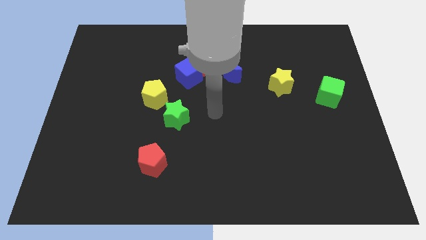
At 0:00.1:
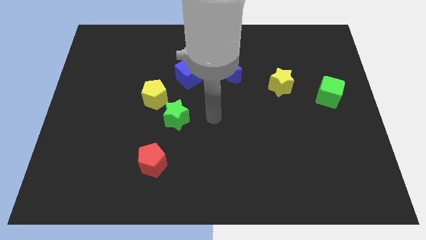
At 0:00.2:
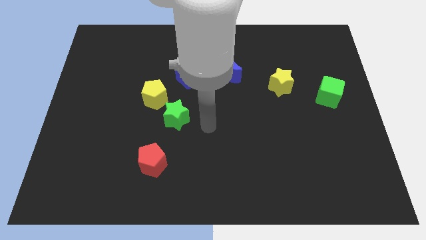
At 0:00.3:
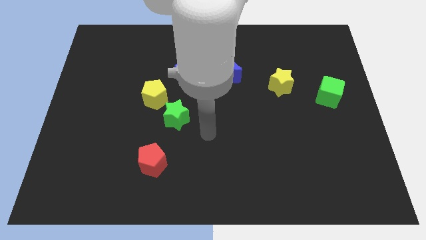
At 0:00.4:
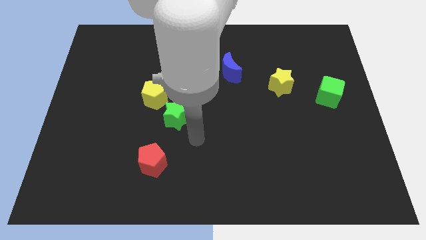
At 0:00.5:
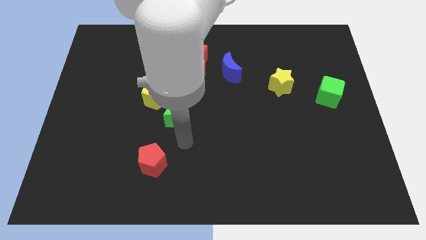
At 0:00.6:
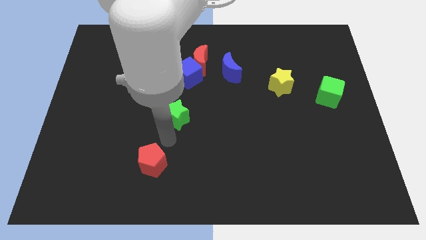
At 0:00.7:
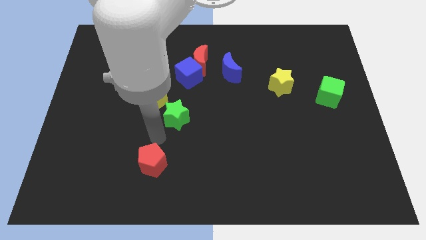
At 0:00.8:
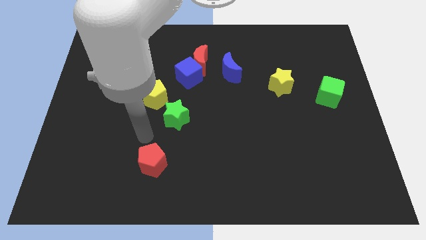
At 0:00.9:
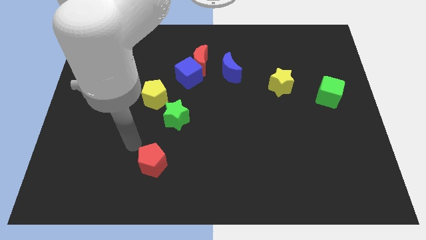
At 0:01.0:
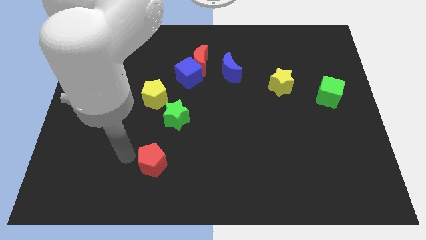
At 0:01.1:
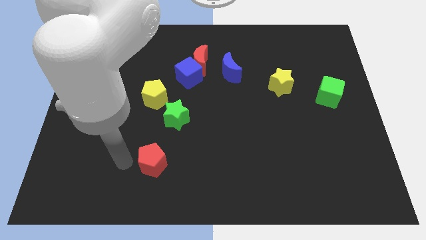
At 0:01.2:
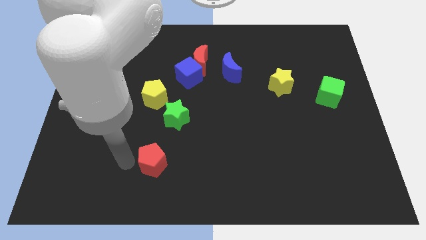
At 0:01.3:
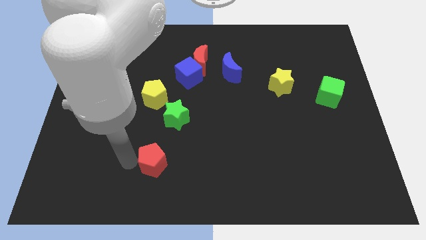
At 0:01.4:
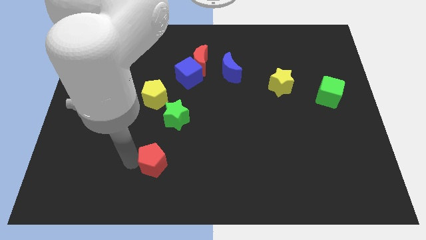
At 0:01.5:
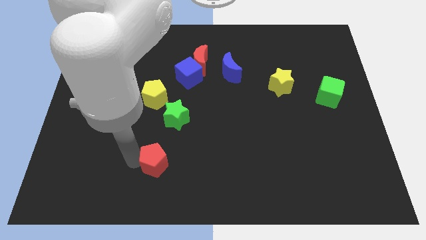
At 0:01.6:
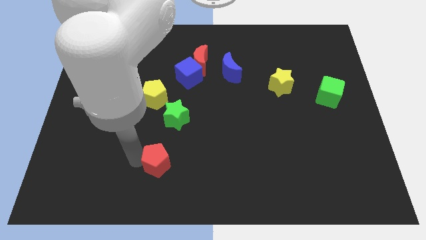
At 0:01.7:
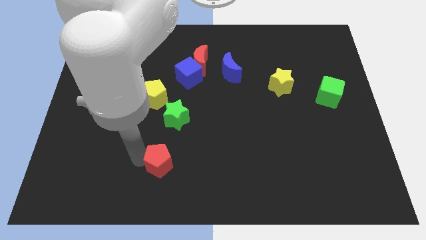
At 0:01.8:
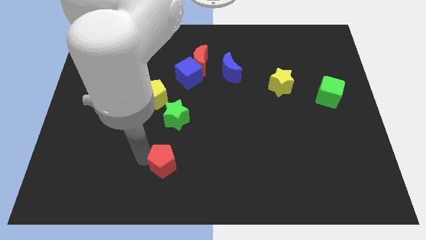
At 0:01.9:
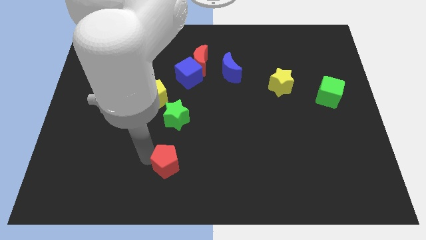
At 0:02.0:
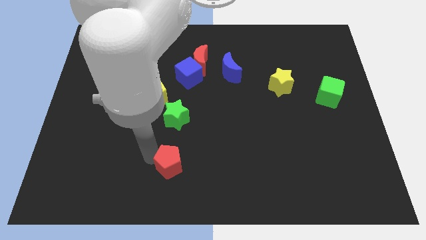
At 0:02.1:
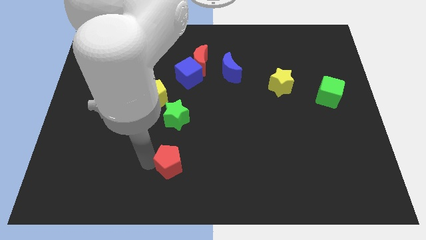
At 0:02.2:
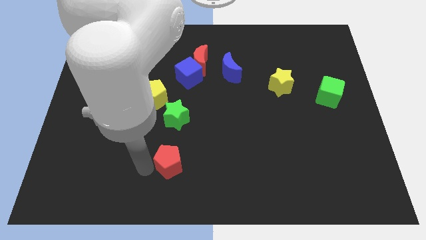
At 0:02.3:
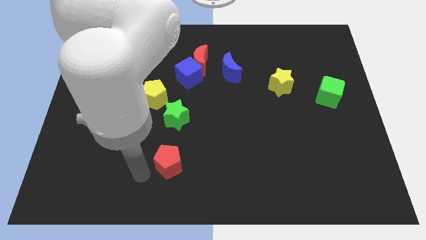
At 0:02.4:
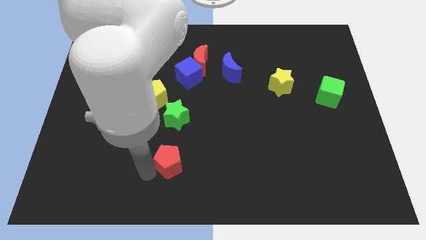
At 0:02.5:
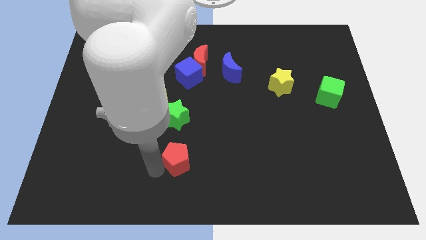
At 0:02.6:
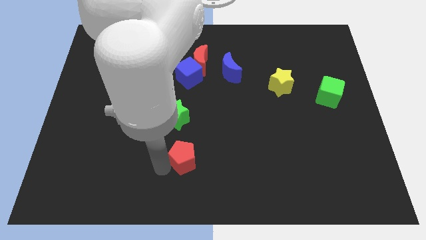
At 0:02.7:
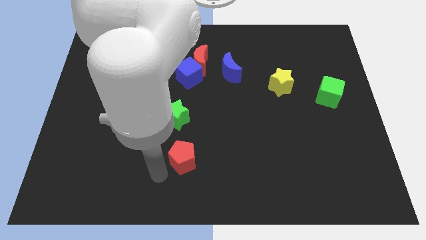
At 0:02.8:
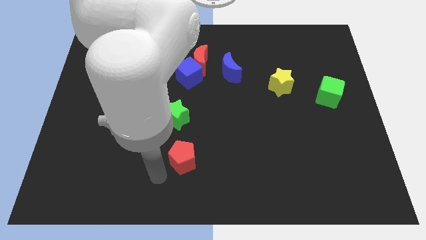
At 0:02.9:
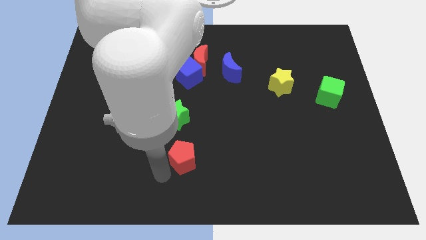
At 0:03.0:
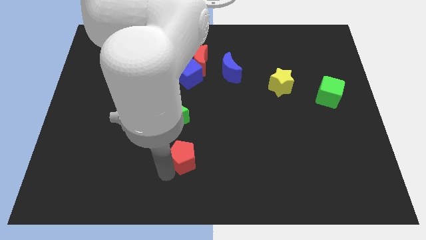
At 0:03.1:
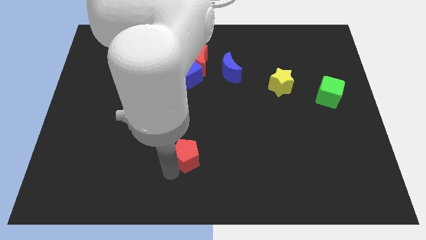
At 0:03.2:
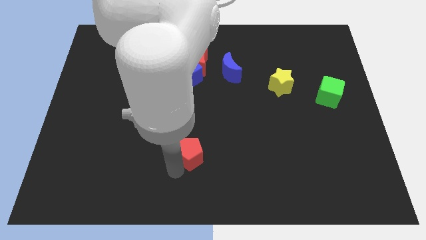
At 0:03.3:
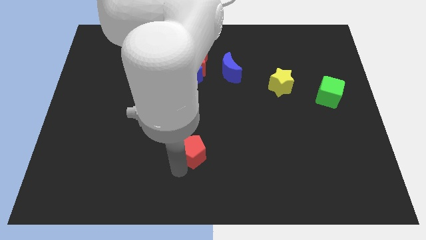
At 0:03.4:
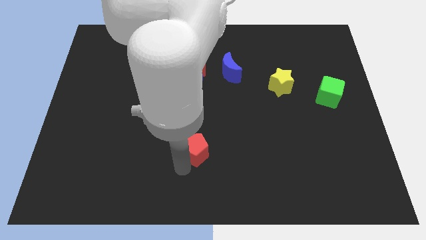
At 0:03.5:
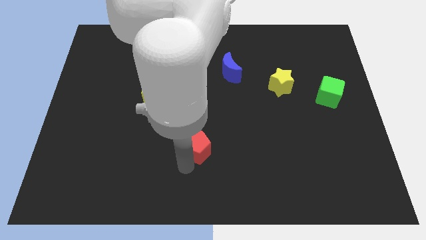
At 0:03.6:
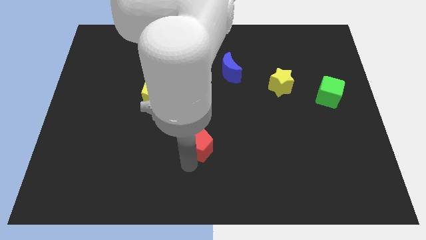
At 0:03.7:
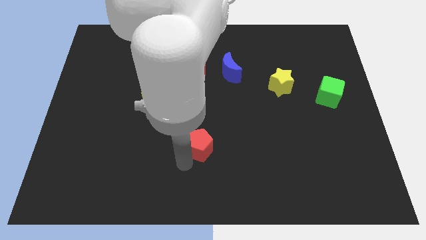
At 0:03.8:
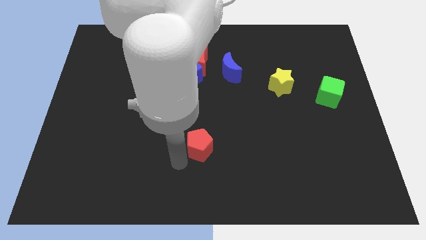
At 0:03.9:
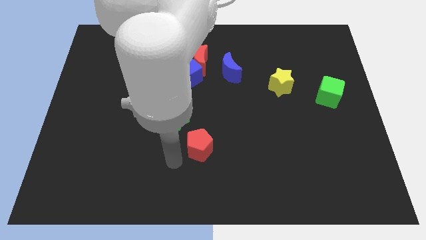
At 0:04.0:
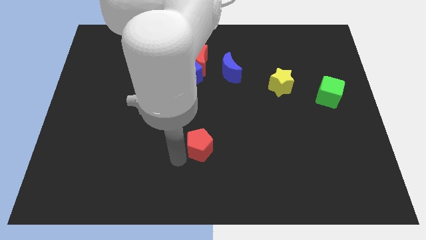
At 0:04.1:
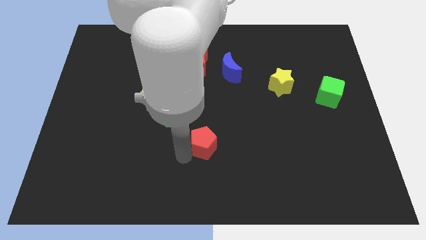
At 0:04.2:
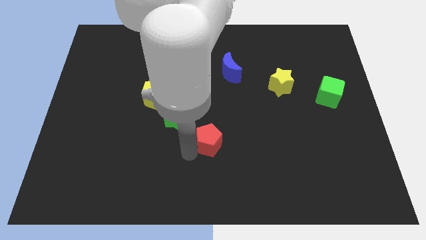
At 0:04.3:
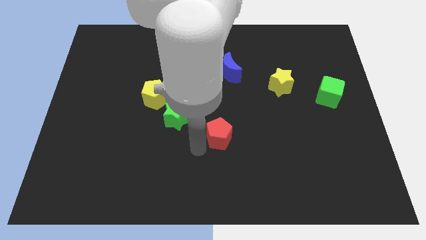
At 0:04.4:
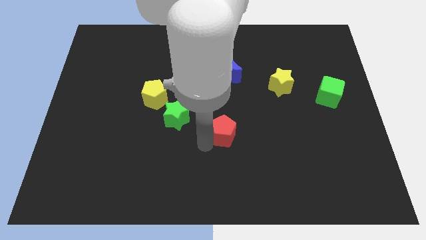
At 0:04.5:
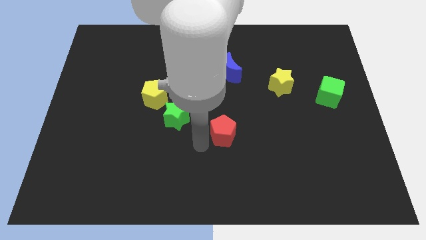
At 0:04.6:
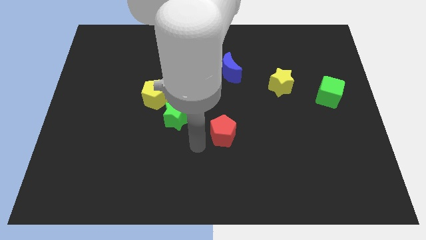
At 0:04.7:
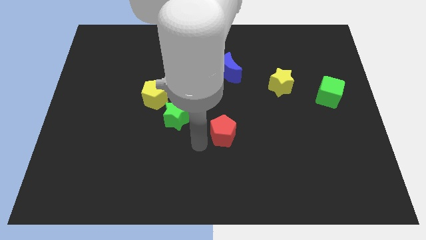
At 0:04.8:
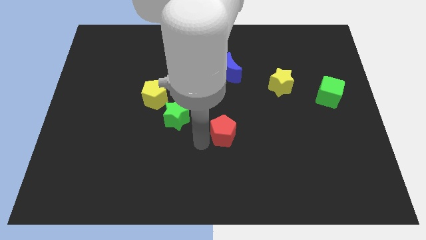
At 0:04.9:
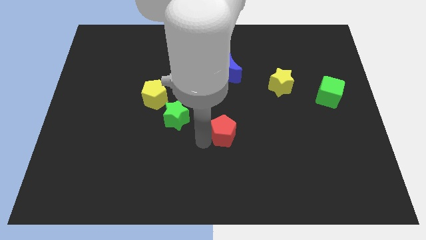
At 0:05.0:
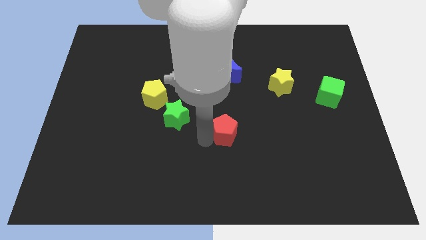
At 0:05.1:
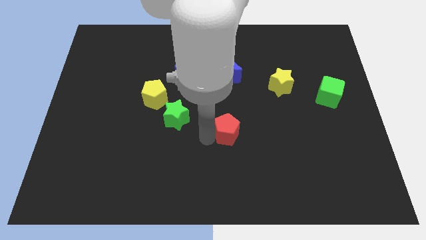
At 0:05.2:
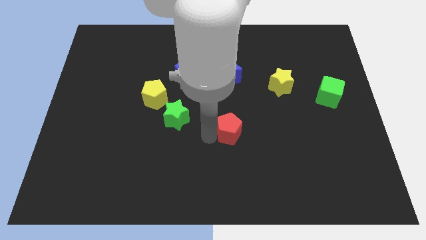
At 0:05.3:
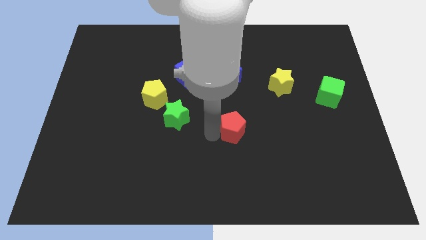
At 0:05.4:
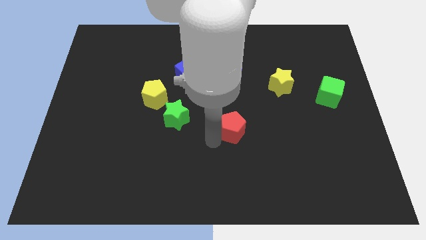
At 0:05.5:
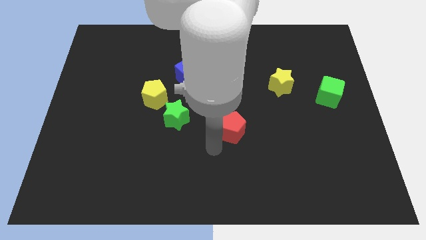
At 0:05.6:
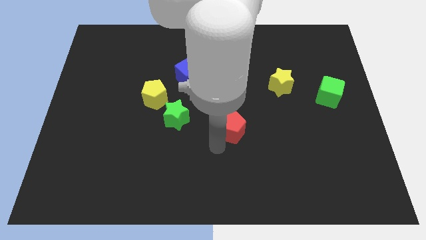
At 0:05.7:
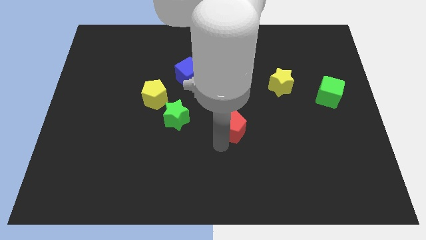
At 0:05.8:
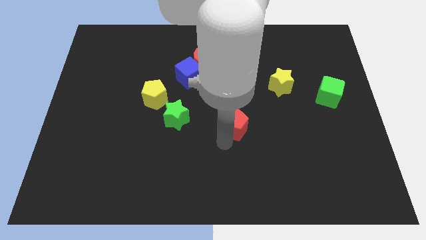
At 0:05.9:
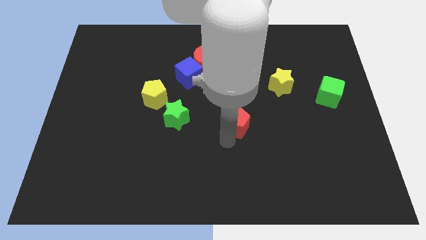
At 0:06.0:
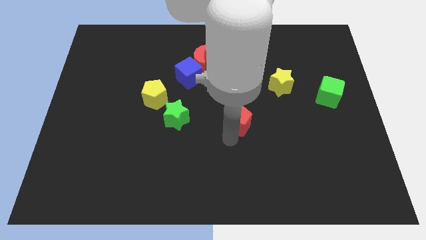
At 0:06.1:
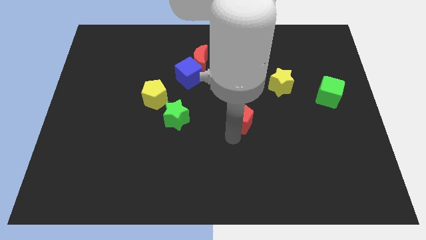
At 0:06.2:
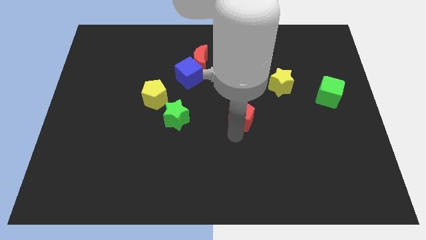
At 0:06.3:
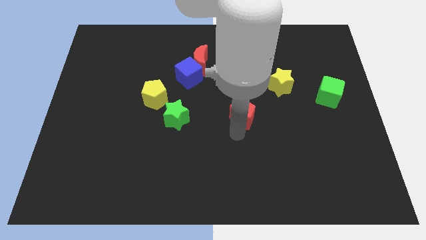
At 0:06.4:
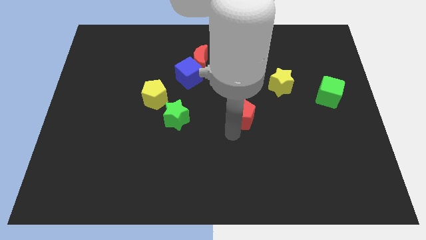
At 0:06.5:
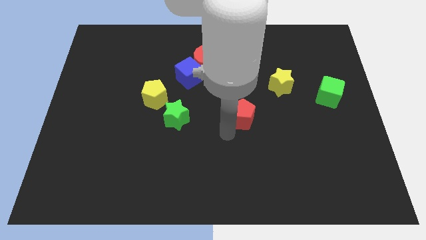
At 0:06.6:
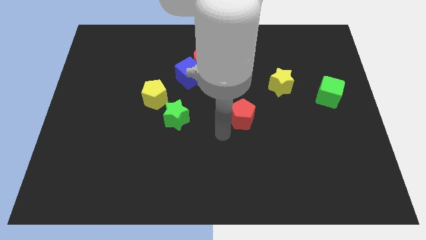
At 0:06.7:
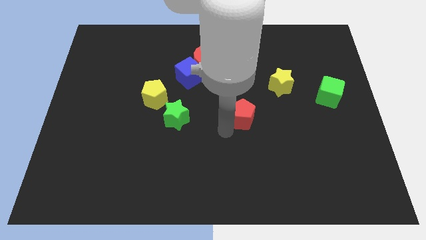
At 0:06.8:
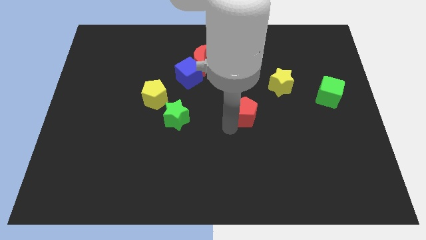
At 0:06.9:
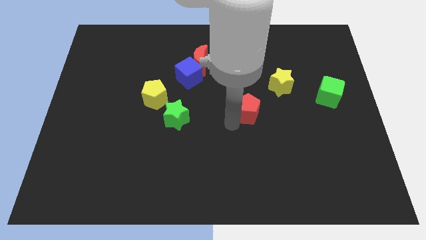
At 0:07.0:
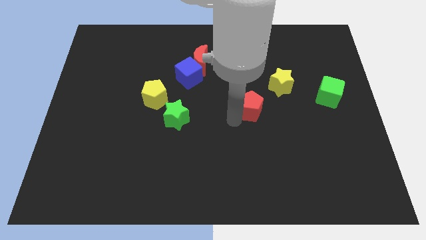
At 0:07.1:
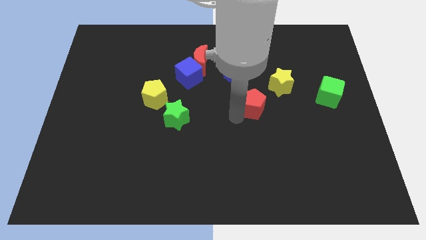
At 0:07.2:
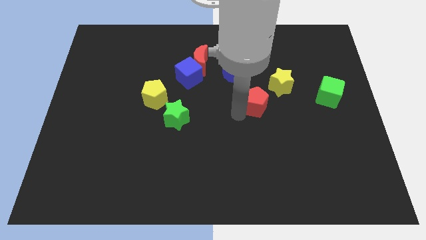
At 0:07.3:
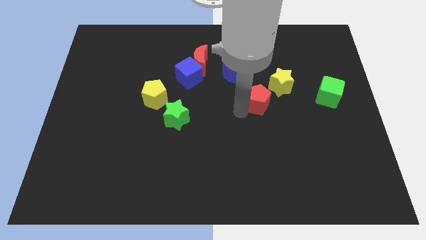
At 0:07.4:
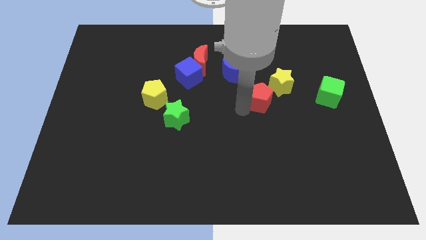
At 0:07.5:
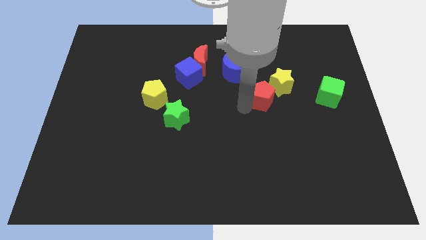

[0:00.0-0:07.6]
move the red pentagon to the left side of the green cube
